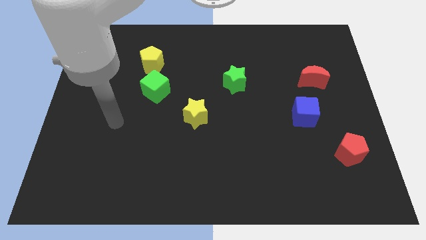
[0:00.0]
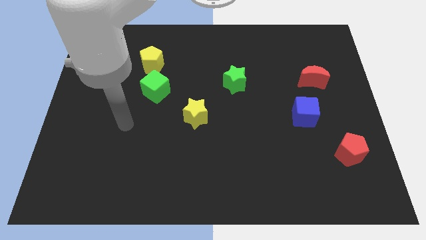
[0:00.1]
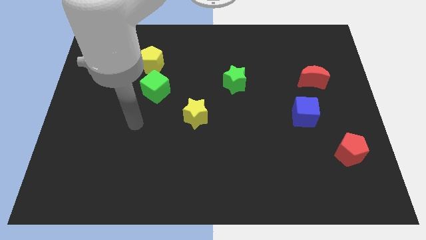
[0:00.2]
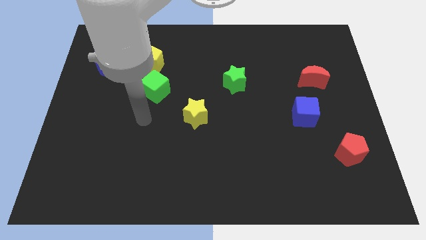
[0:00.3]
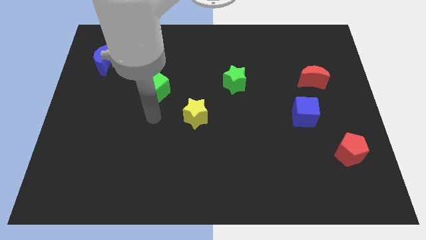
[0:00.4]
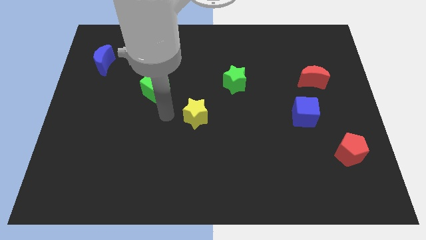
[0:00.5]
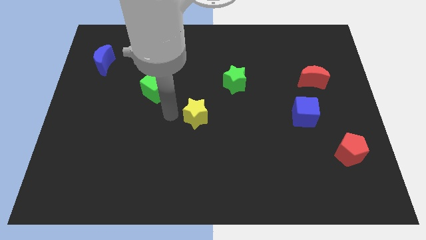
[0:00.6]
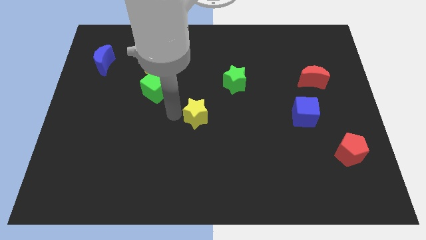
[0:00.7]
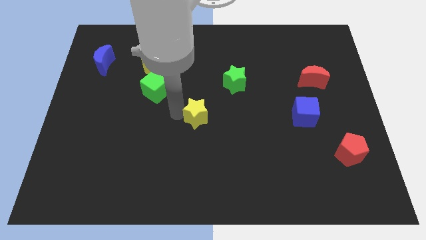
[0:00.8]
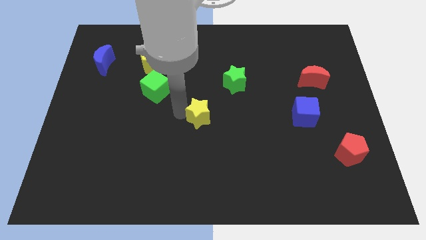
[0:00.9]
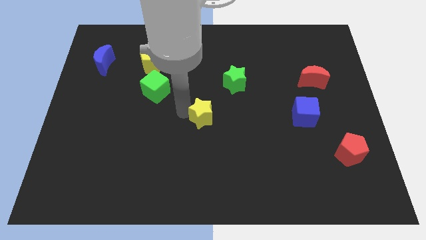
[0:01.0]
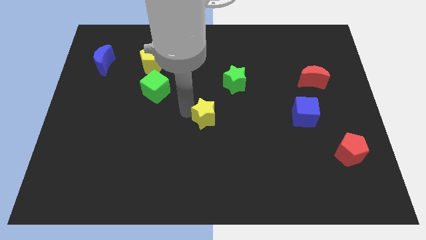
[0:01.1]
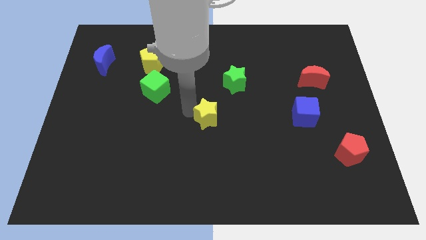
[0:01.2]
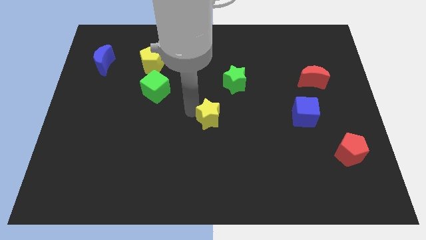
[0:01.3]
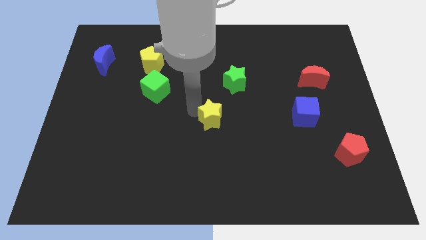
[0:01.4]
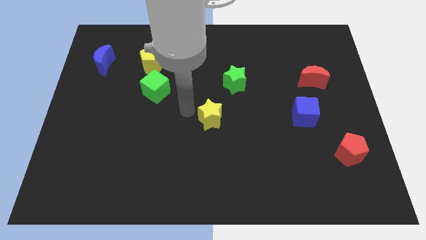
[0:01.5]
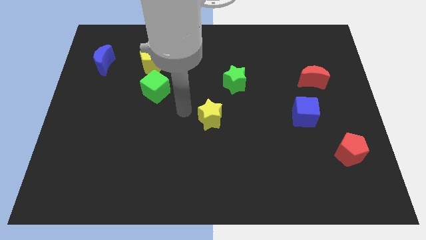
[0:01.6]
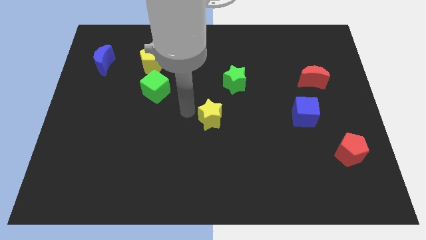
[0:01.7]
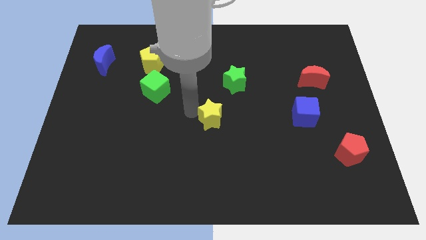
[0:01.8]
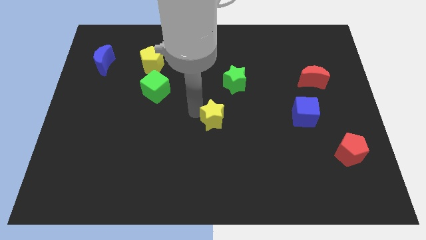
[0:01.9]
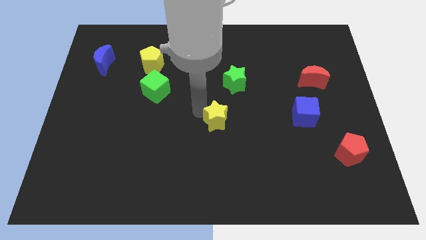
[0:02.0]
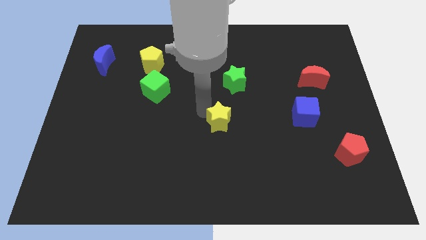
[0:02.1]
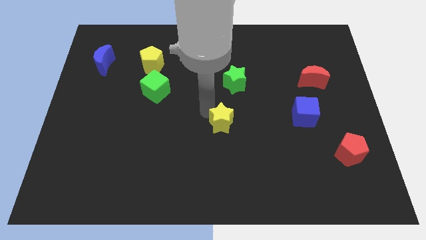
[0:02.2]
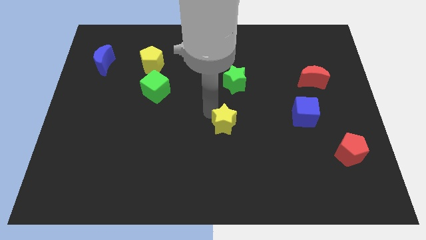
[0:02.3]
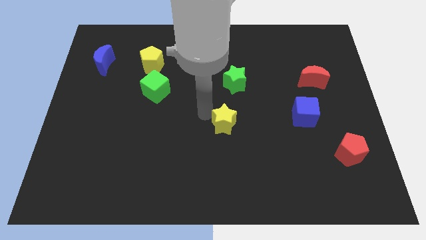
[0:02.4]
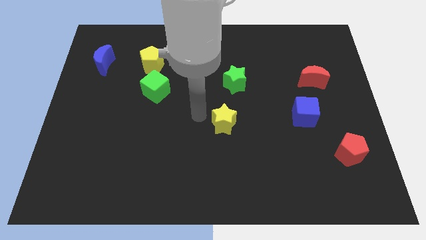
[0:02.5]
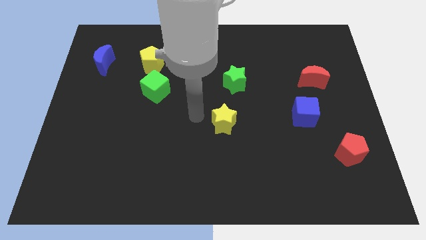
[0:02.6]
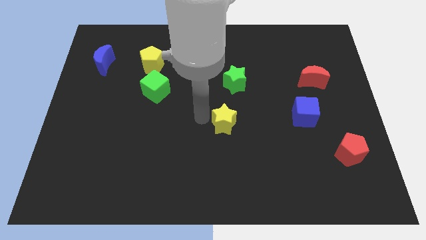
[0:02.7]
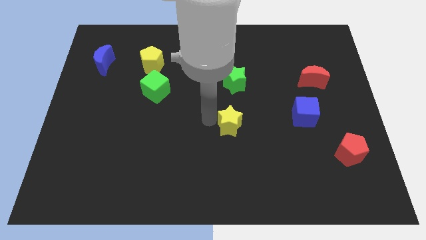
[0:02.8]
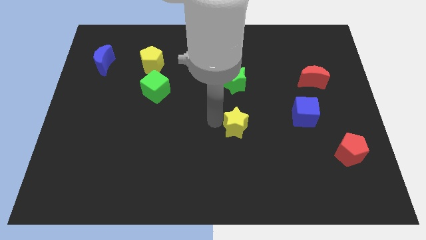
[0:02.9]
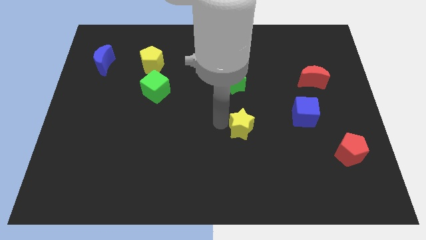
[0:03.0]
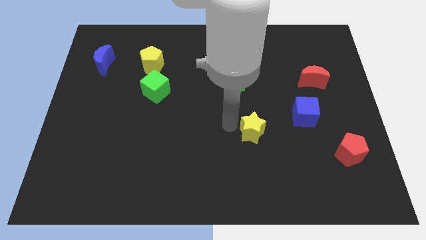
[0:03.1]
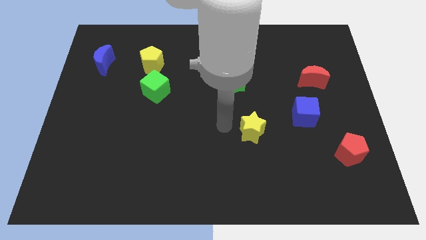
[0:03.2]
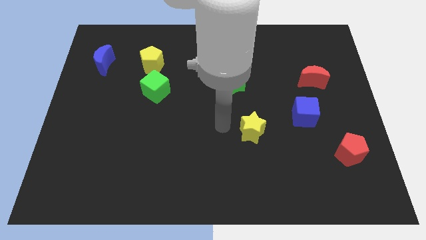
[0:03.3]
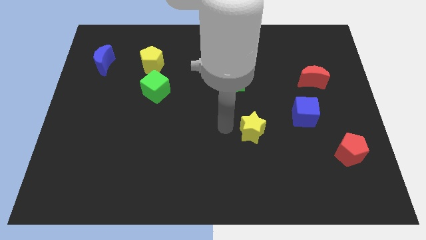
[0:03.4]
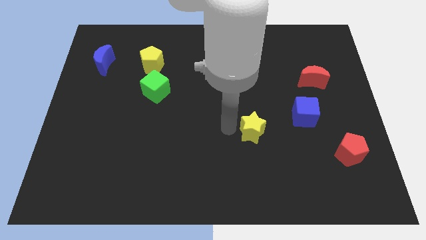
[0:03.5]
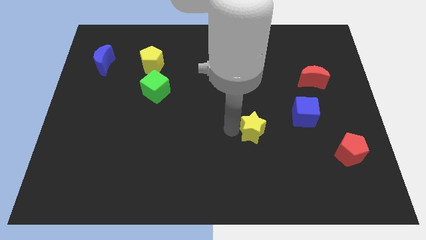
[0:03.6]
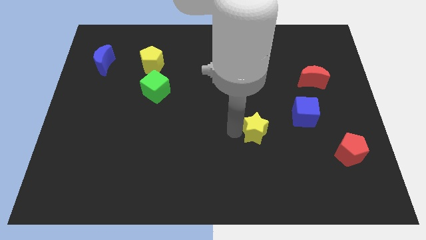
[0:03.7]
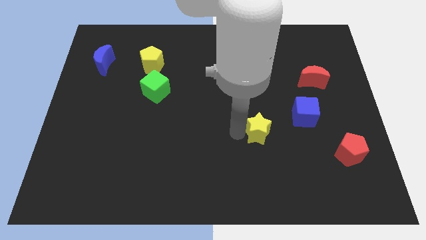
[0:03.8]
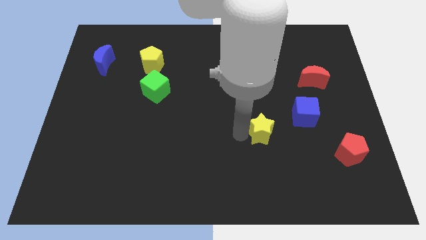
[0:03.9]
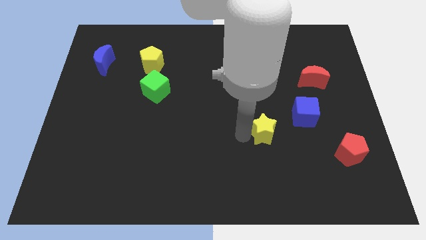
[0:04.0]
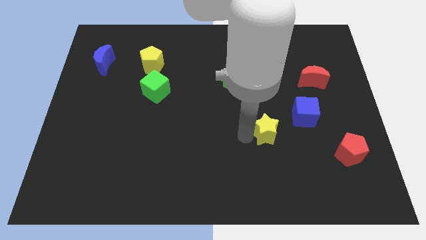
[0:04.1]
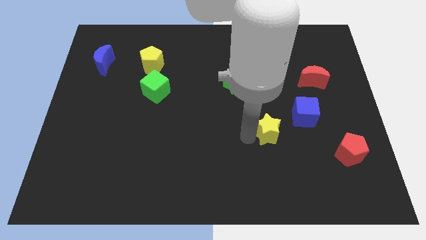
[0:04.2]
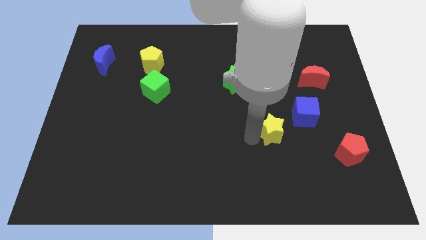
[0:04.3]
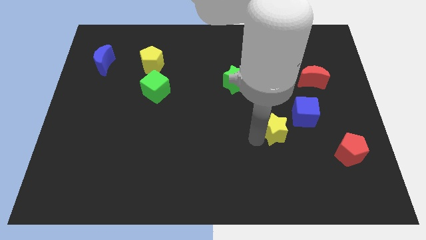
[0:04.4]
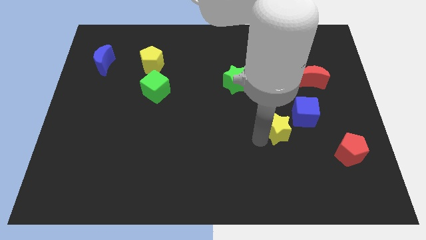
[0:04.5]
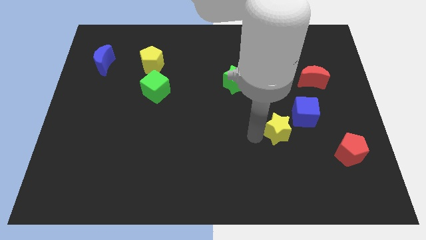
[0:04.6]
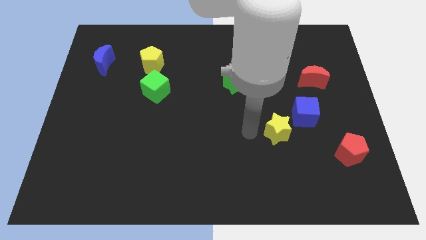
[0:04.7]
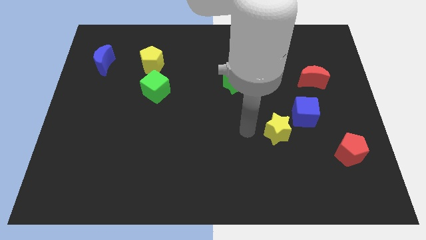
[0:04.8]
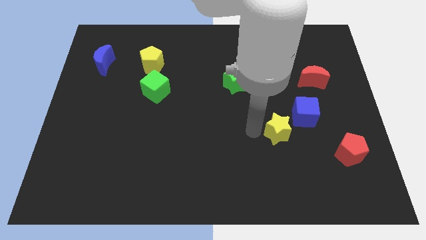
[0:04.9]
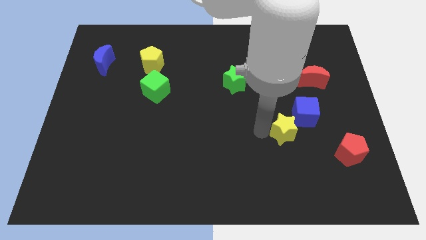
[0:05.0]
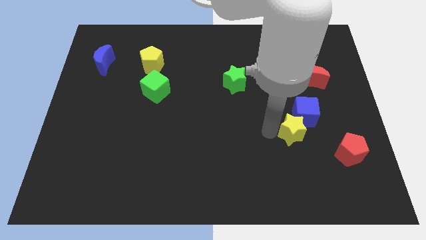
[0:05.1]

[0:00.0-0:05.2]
move the yellow star to the right

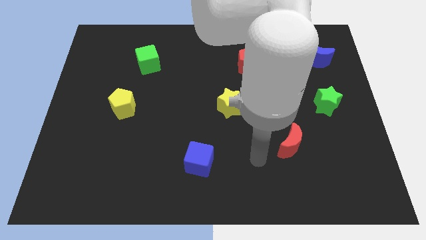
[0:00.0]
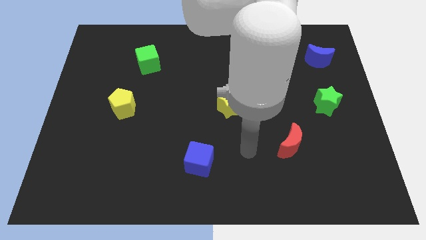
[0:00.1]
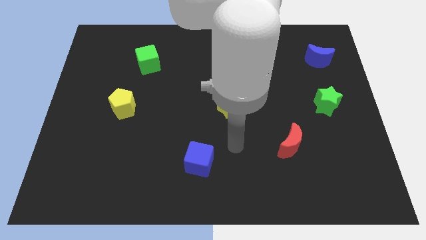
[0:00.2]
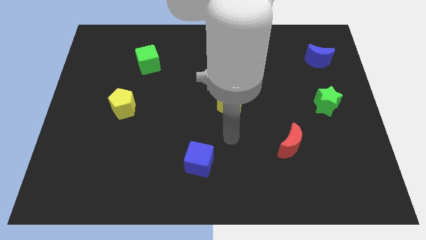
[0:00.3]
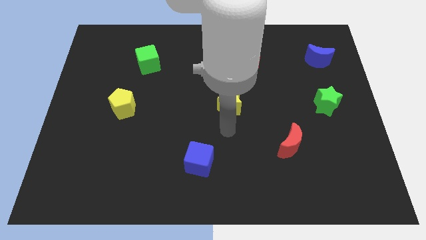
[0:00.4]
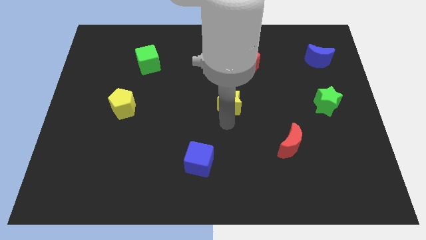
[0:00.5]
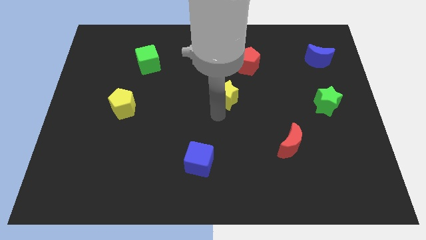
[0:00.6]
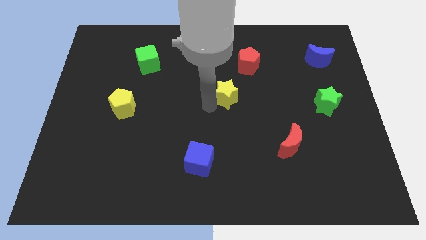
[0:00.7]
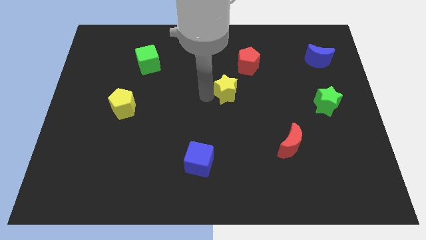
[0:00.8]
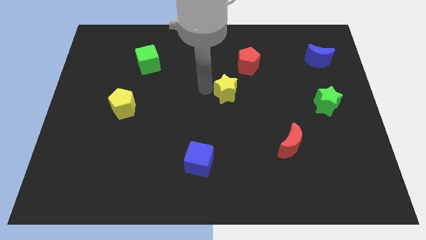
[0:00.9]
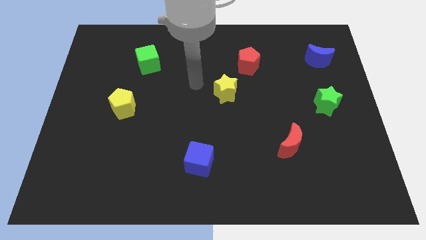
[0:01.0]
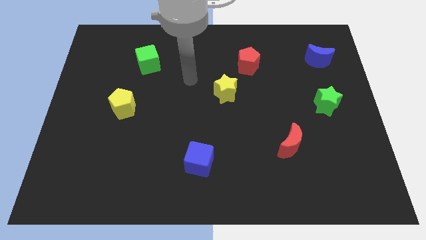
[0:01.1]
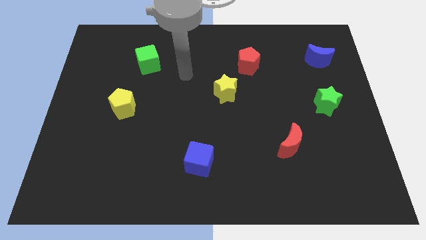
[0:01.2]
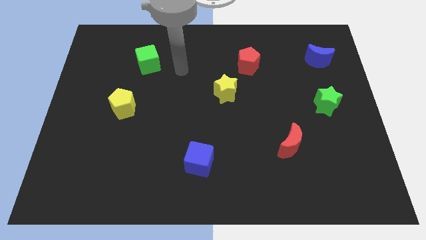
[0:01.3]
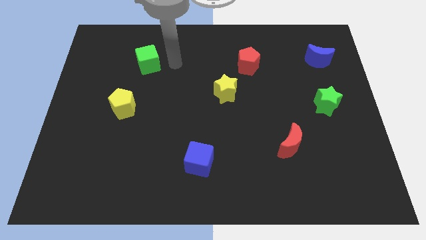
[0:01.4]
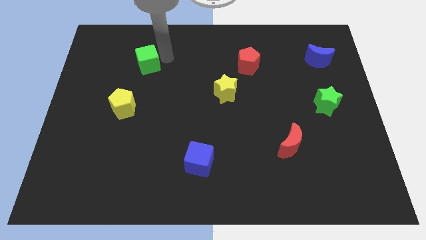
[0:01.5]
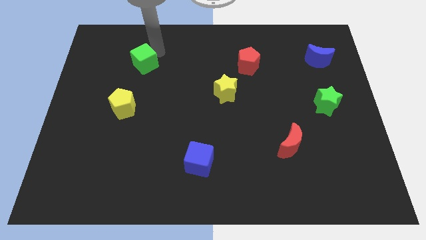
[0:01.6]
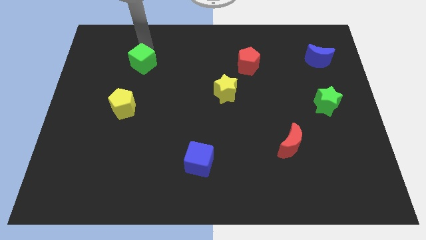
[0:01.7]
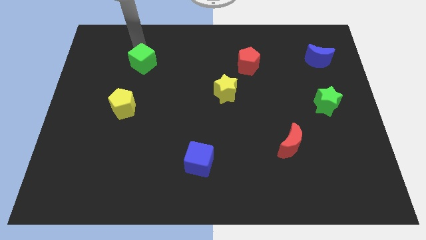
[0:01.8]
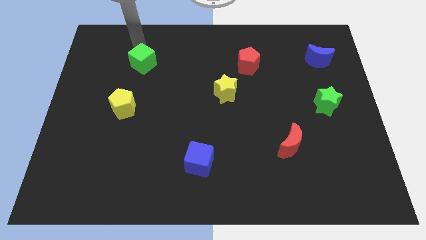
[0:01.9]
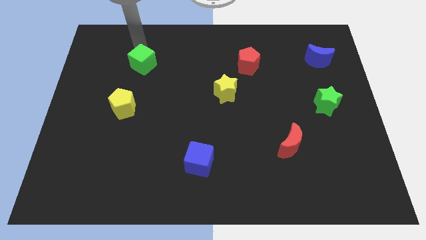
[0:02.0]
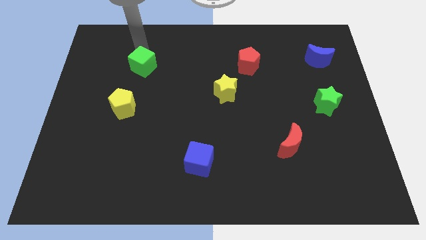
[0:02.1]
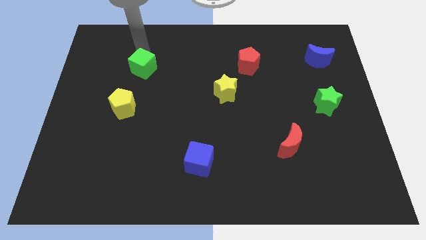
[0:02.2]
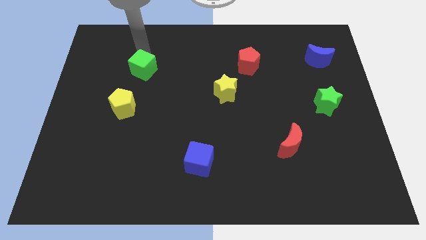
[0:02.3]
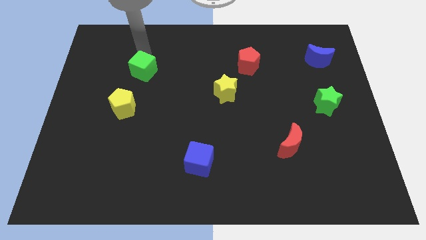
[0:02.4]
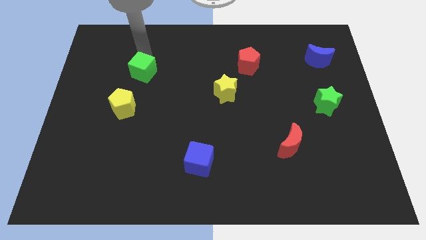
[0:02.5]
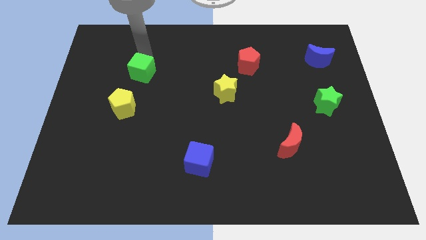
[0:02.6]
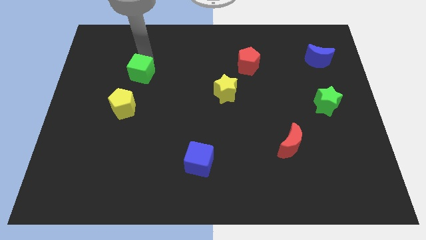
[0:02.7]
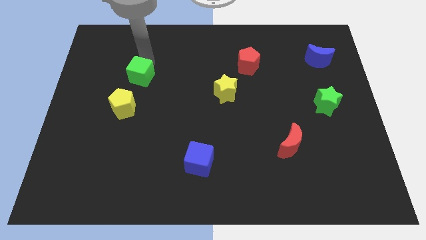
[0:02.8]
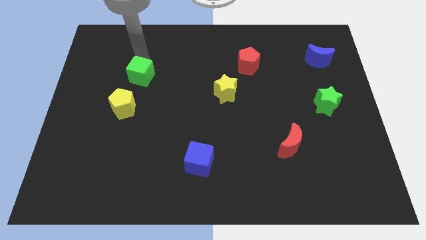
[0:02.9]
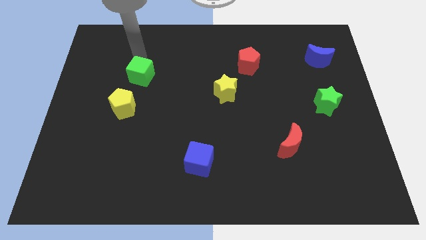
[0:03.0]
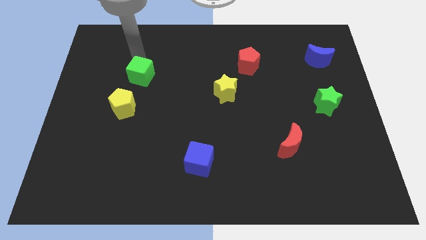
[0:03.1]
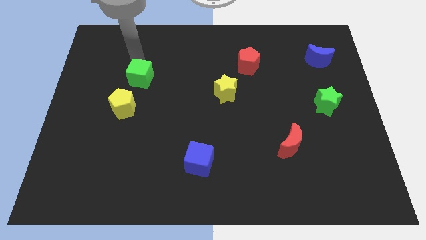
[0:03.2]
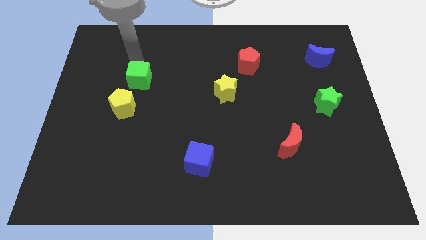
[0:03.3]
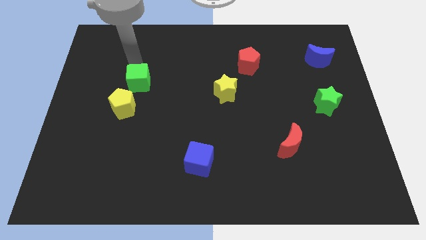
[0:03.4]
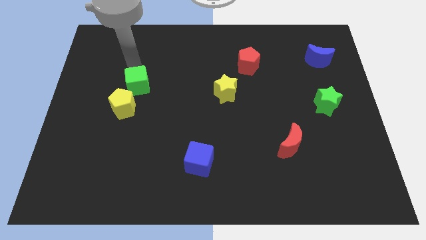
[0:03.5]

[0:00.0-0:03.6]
slightly move the green cube downwards
